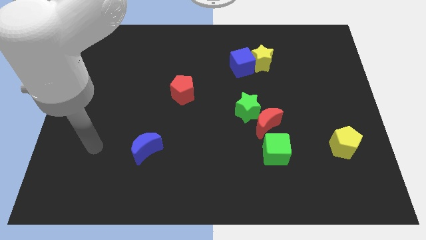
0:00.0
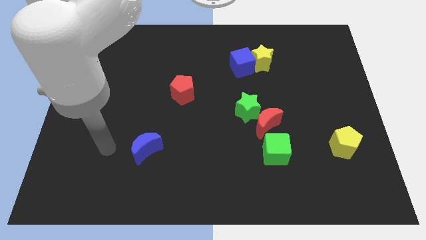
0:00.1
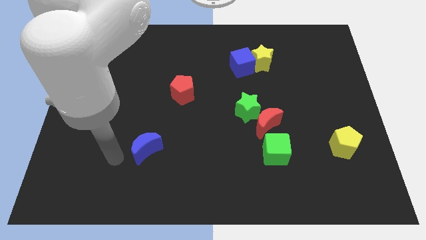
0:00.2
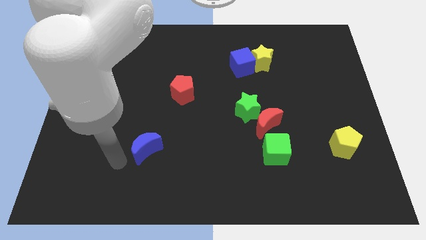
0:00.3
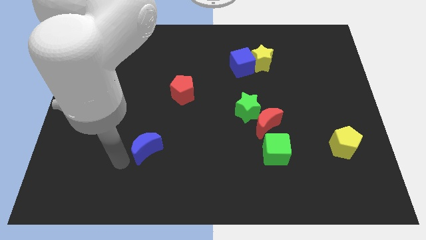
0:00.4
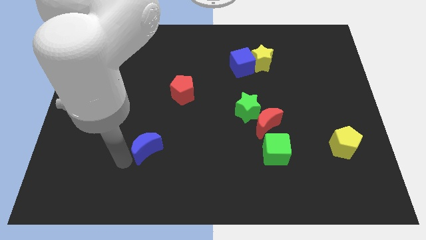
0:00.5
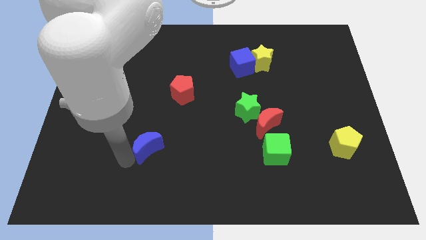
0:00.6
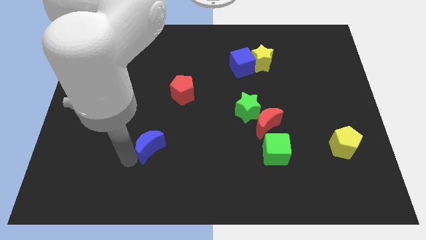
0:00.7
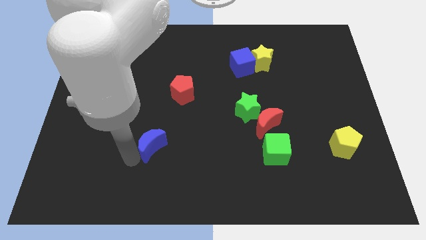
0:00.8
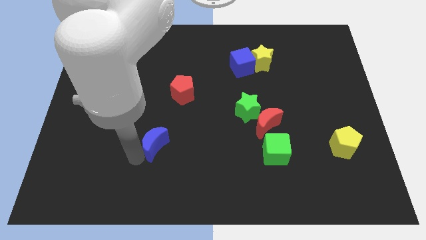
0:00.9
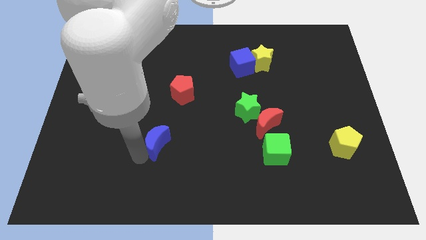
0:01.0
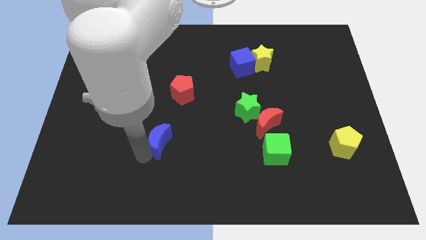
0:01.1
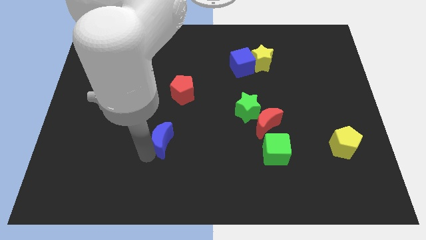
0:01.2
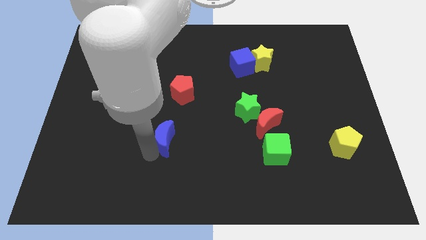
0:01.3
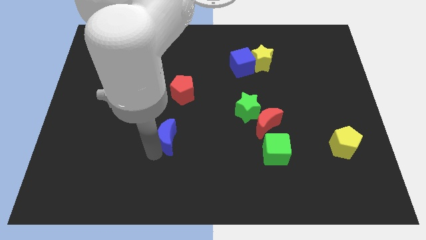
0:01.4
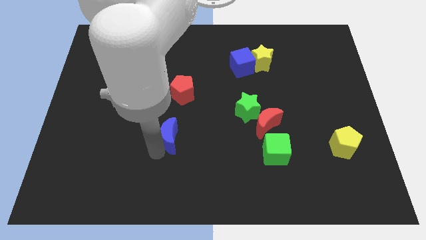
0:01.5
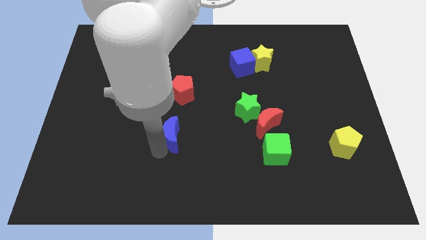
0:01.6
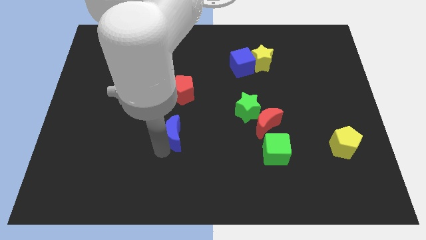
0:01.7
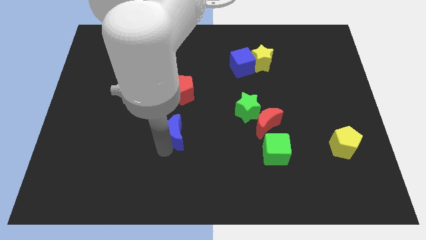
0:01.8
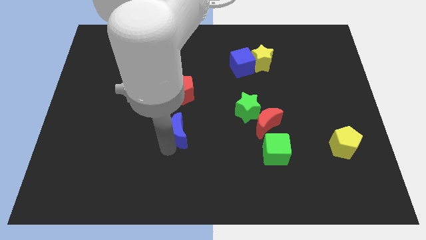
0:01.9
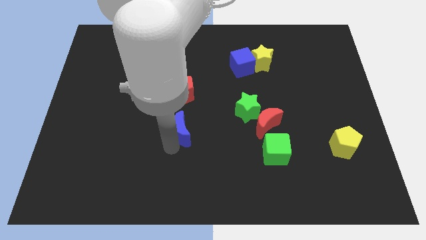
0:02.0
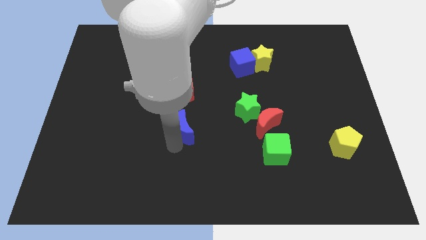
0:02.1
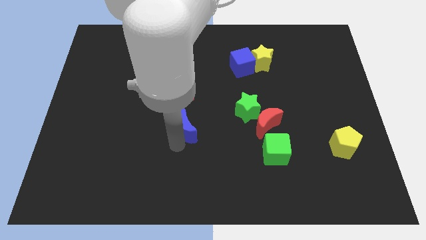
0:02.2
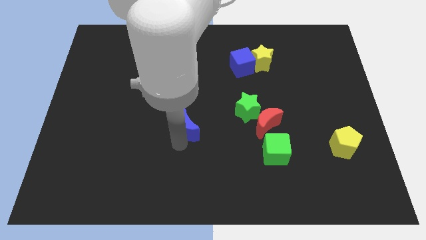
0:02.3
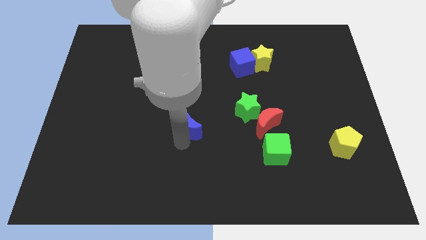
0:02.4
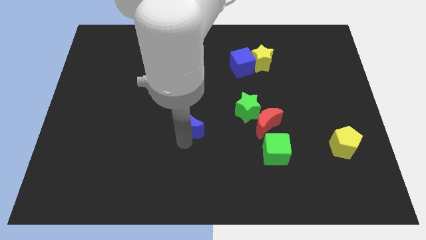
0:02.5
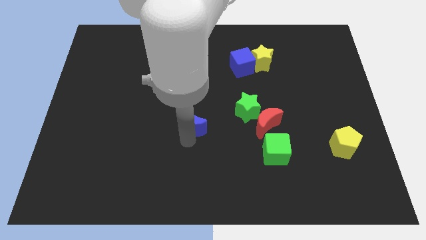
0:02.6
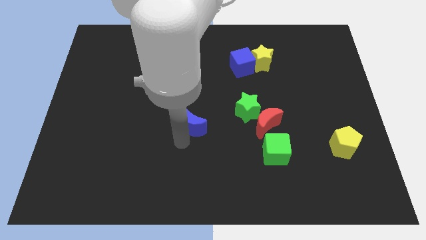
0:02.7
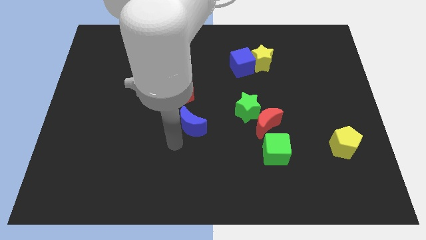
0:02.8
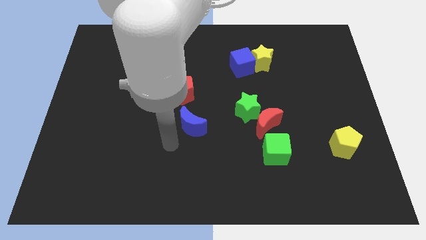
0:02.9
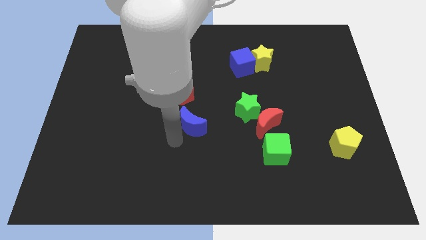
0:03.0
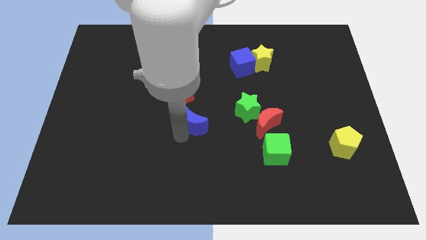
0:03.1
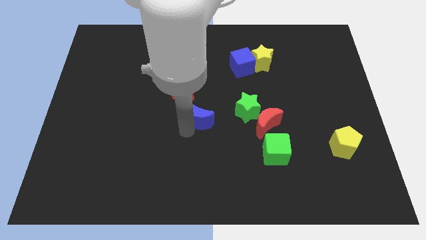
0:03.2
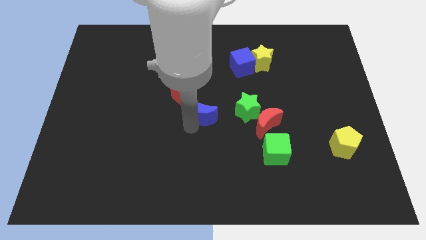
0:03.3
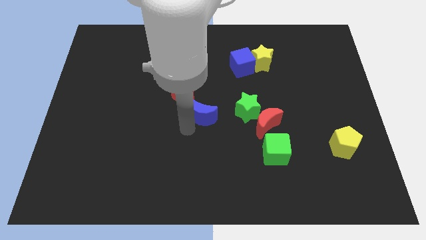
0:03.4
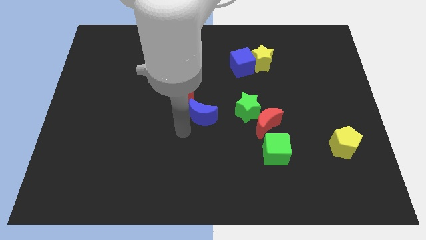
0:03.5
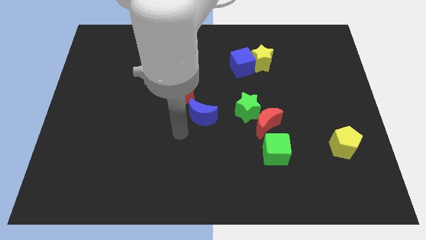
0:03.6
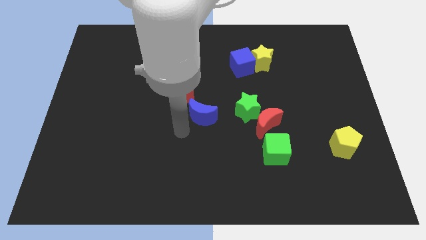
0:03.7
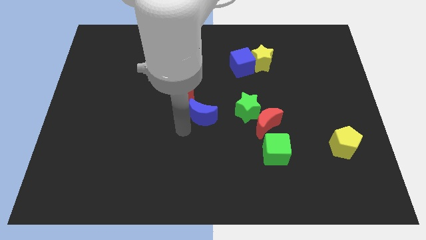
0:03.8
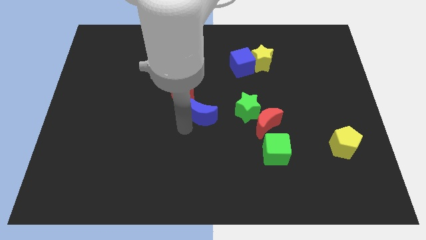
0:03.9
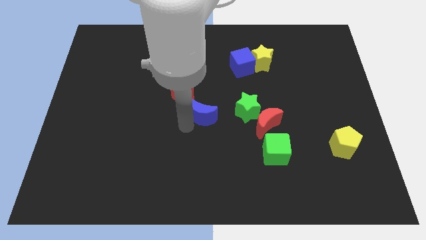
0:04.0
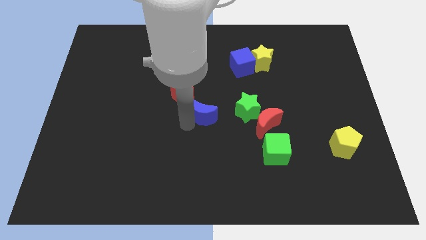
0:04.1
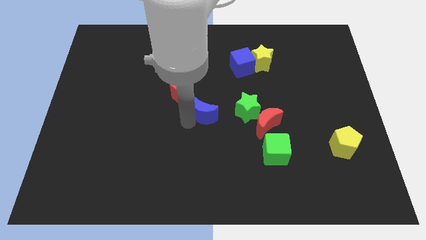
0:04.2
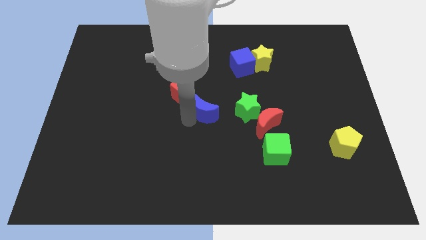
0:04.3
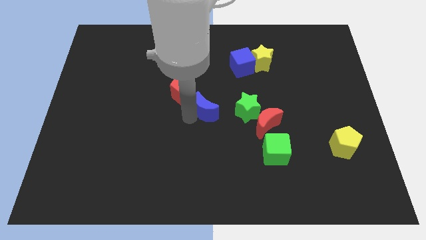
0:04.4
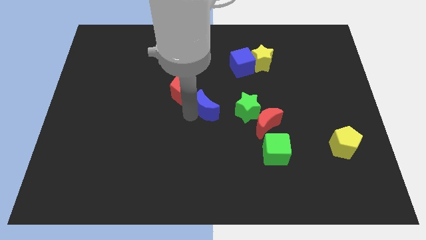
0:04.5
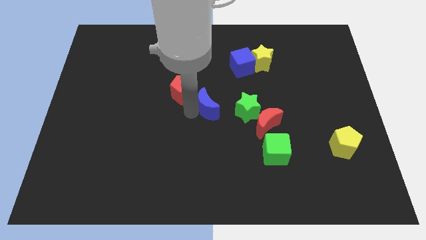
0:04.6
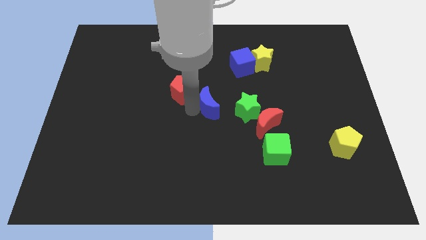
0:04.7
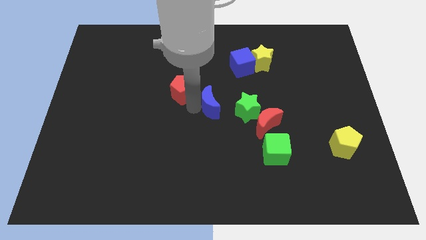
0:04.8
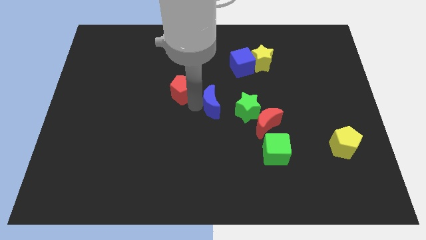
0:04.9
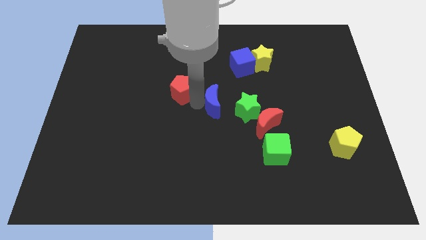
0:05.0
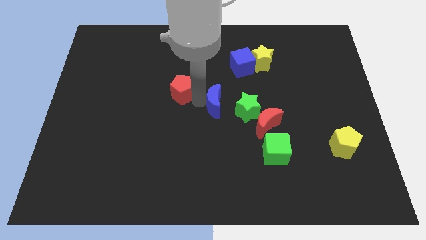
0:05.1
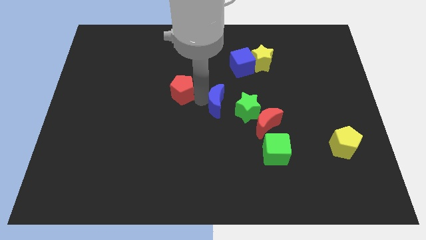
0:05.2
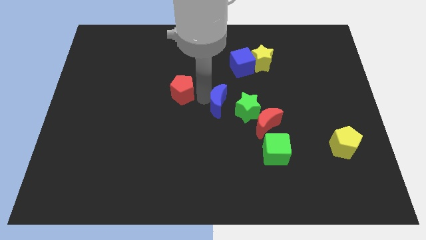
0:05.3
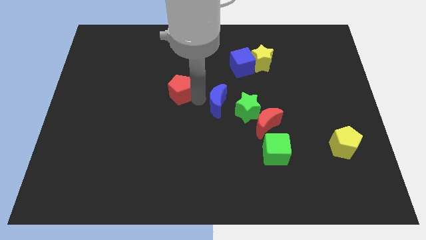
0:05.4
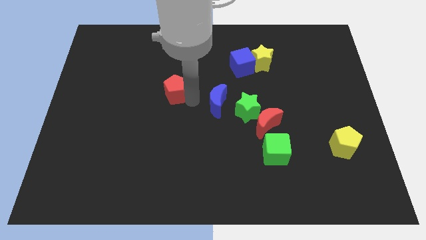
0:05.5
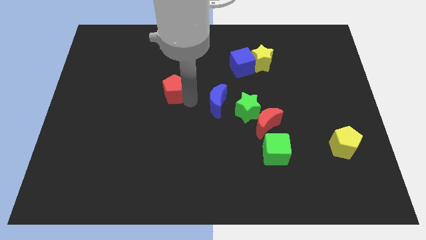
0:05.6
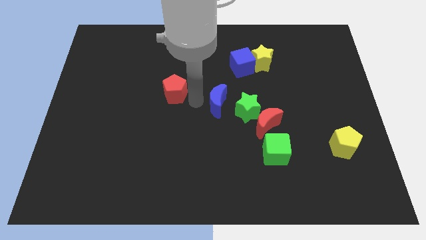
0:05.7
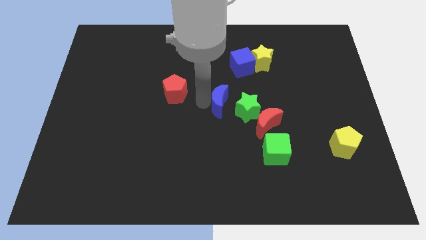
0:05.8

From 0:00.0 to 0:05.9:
push the blue moon to the top left of the red moon

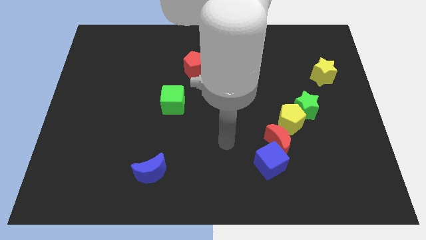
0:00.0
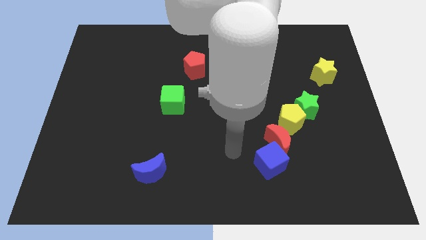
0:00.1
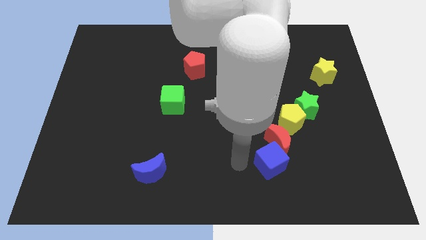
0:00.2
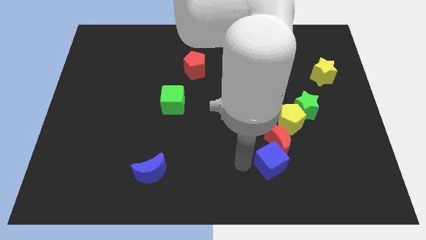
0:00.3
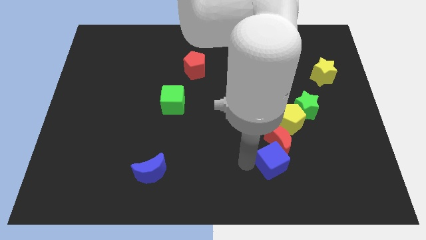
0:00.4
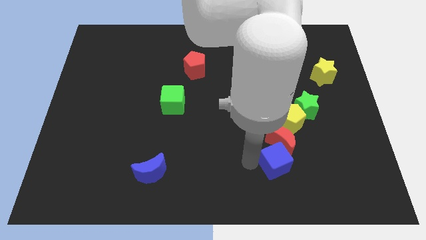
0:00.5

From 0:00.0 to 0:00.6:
push the blue cube below the yellow pentagon
